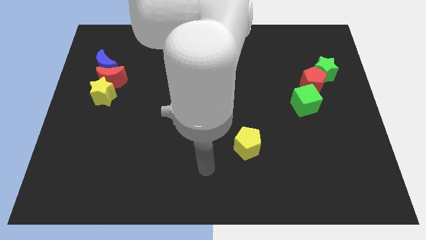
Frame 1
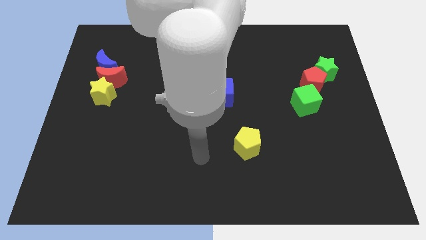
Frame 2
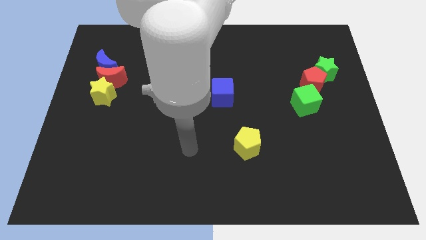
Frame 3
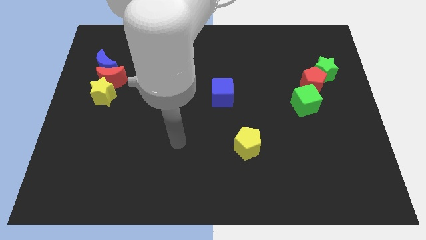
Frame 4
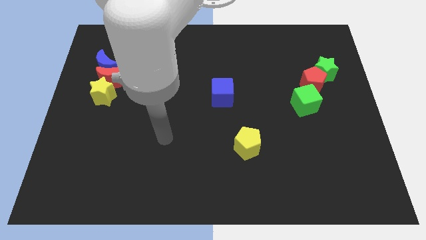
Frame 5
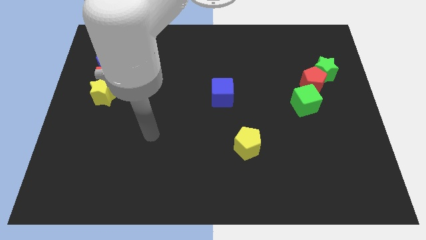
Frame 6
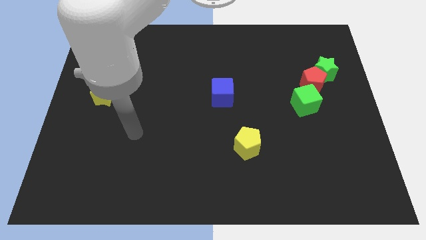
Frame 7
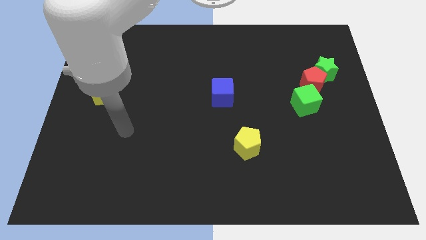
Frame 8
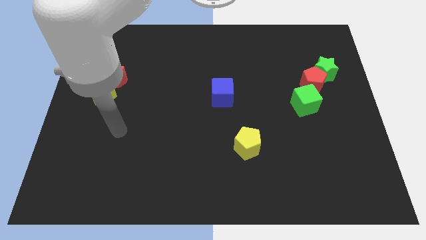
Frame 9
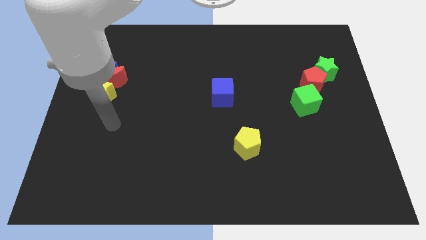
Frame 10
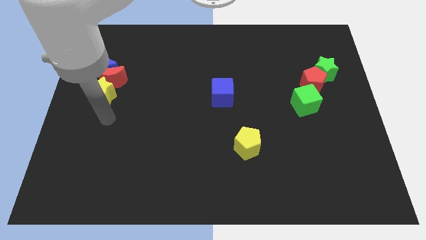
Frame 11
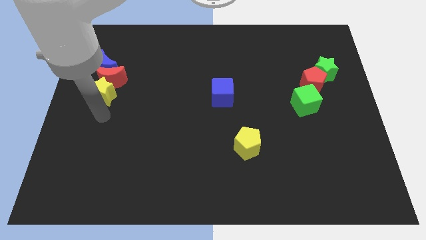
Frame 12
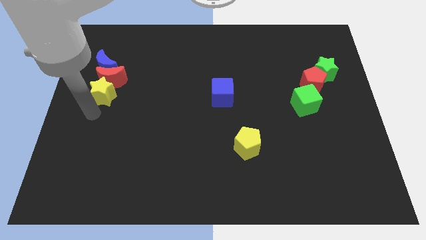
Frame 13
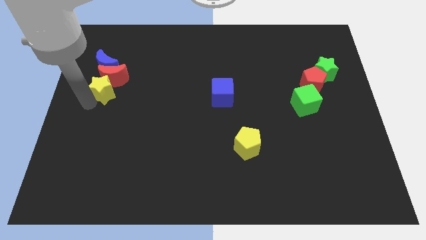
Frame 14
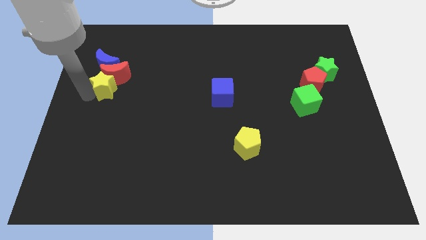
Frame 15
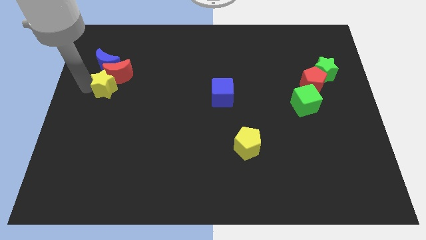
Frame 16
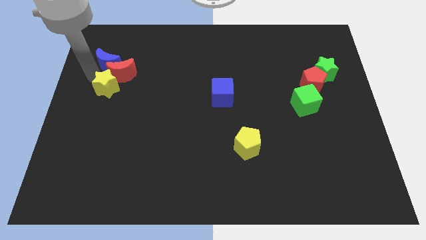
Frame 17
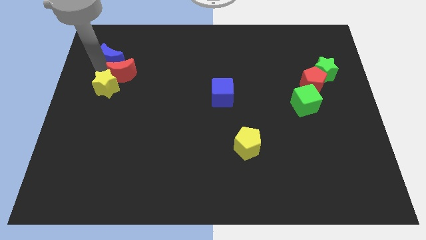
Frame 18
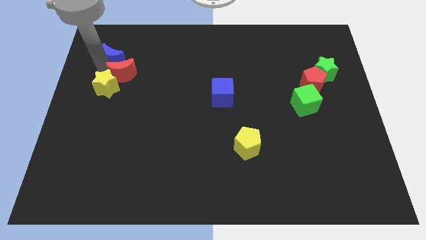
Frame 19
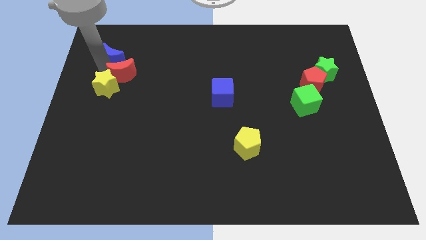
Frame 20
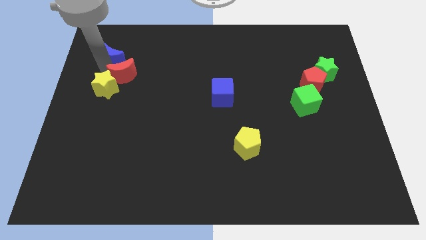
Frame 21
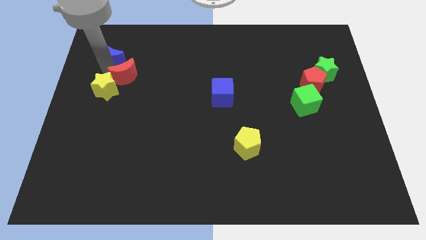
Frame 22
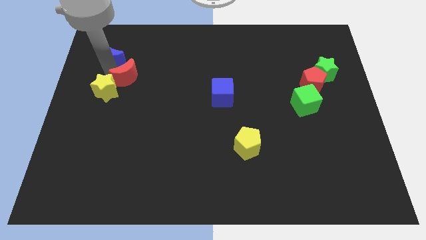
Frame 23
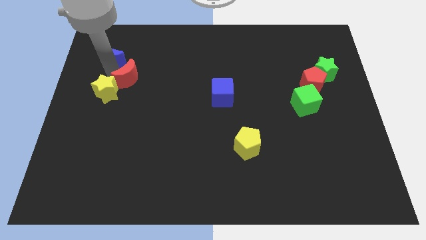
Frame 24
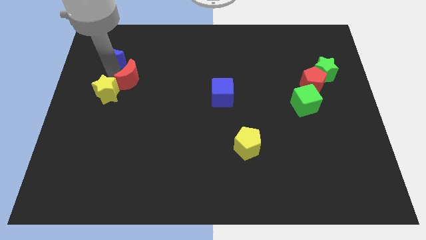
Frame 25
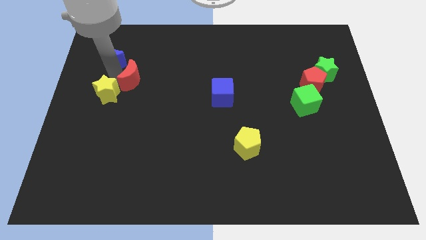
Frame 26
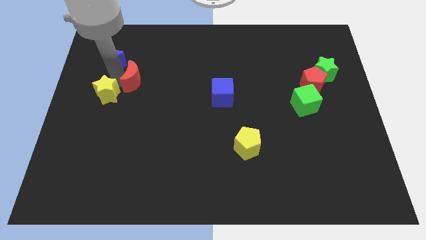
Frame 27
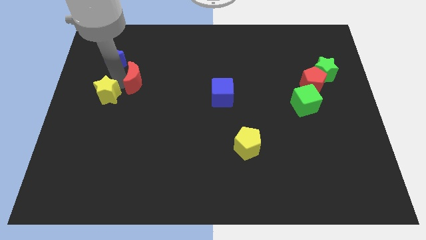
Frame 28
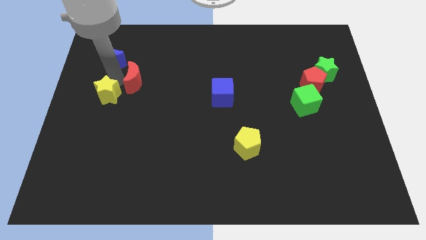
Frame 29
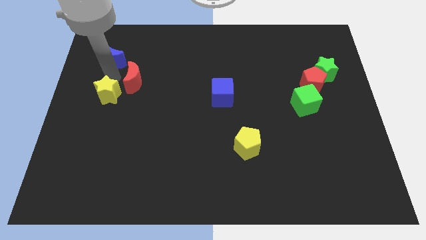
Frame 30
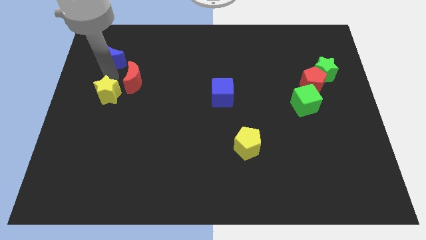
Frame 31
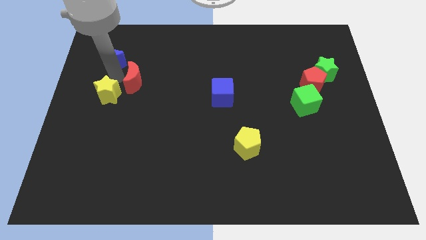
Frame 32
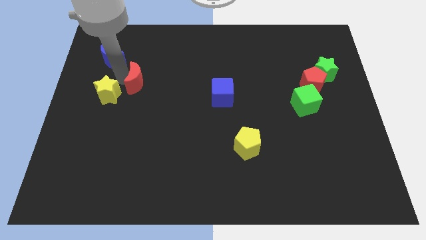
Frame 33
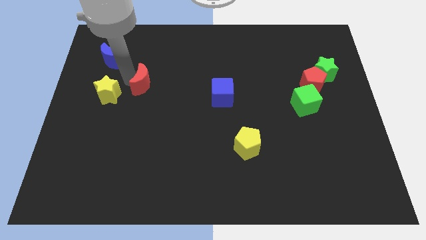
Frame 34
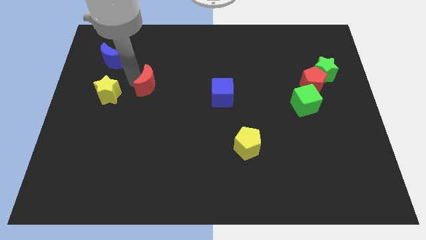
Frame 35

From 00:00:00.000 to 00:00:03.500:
move the red moon away from the blue moon and yellow star

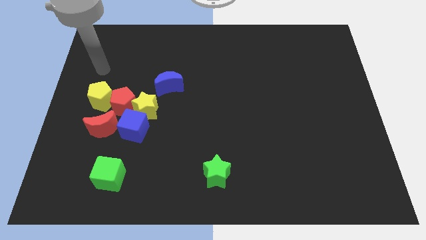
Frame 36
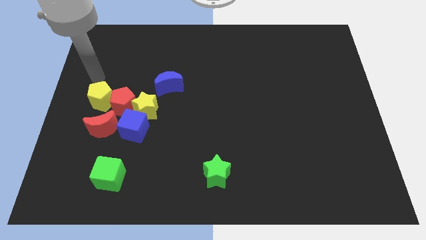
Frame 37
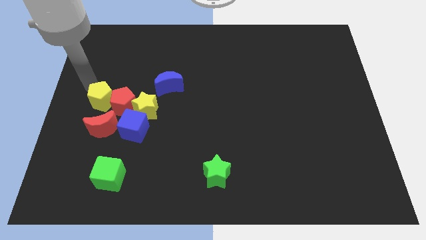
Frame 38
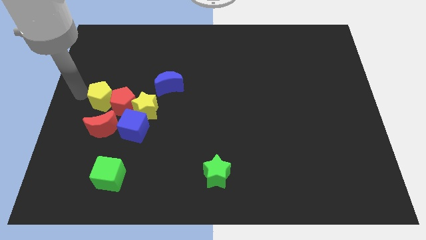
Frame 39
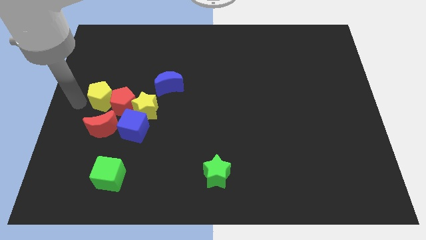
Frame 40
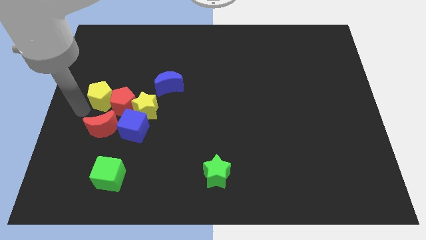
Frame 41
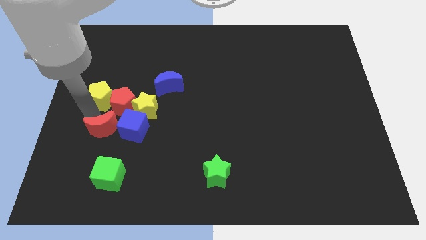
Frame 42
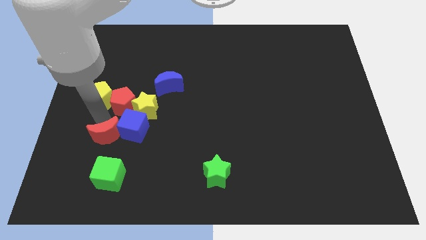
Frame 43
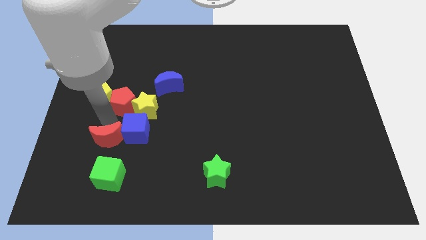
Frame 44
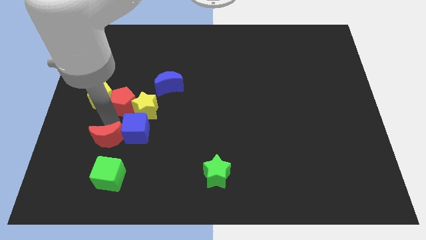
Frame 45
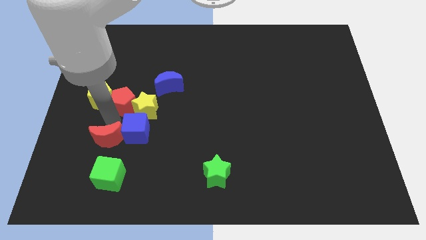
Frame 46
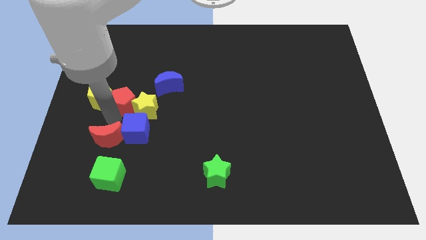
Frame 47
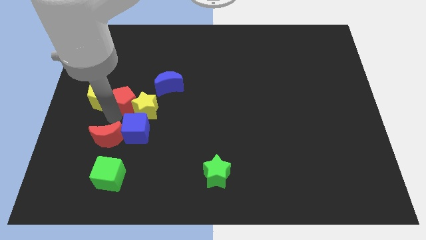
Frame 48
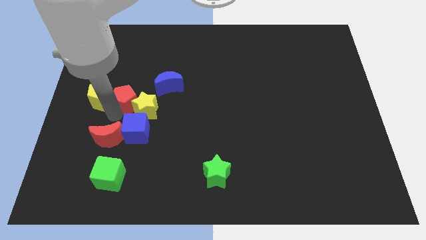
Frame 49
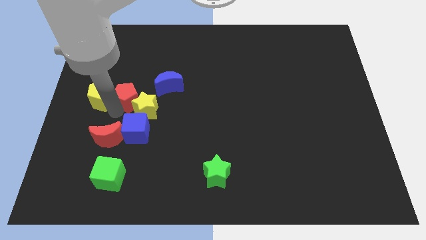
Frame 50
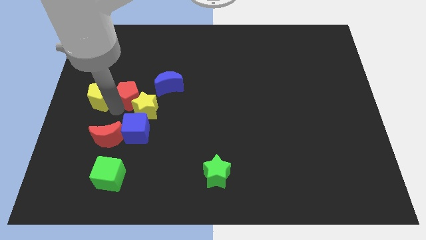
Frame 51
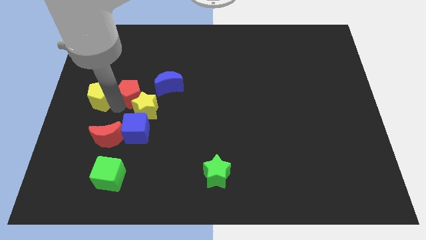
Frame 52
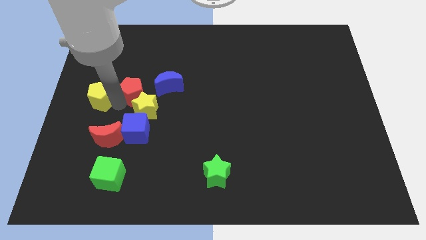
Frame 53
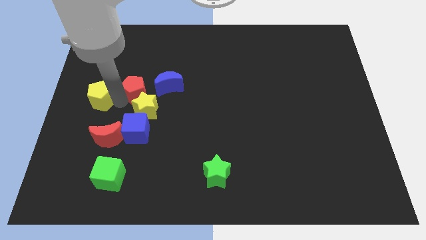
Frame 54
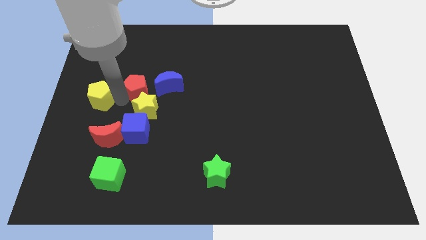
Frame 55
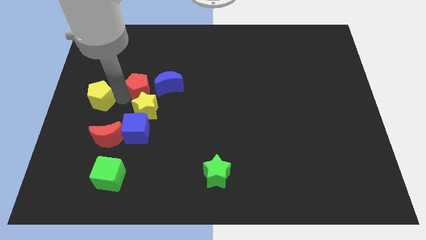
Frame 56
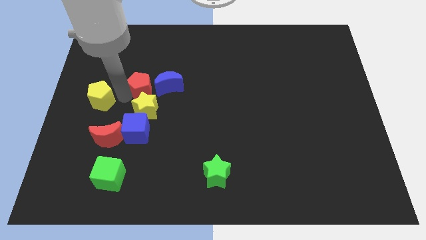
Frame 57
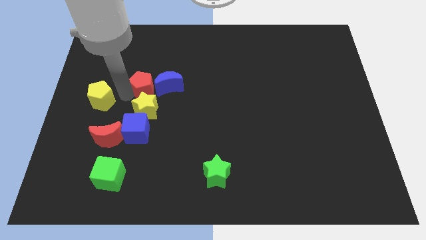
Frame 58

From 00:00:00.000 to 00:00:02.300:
move the red pentagon away from the group

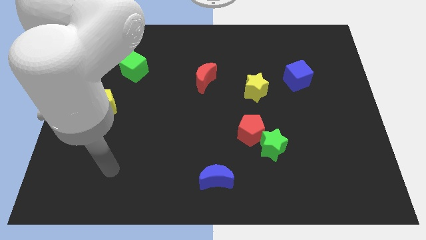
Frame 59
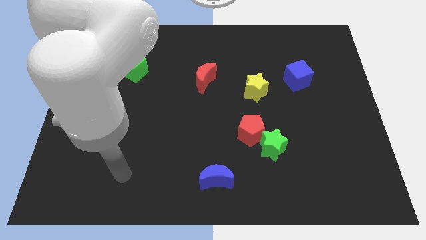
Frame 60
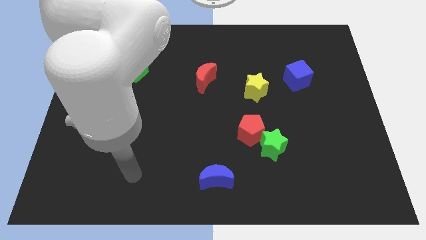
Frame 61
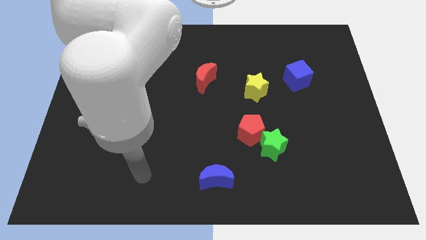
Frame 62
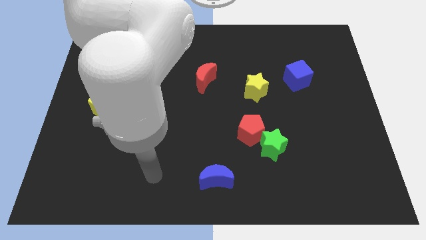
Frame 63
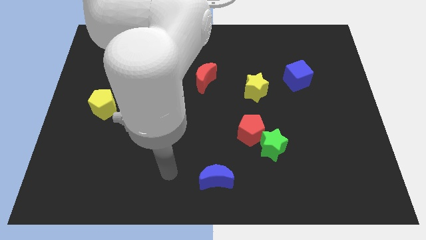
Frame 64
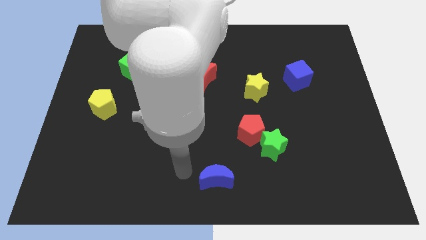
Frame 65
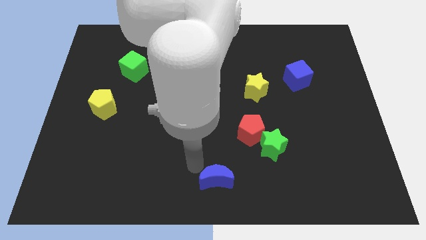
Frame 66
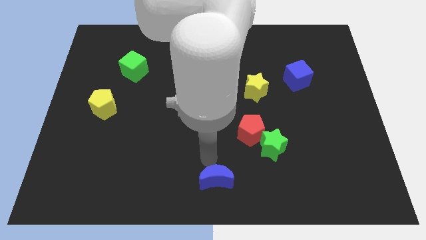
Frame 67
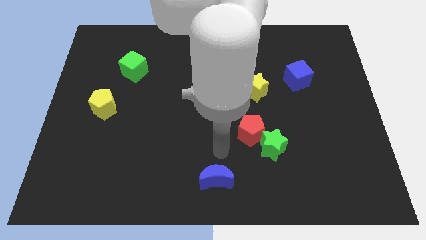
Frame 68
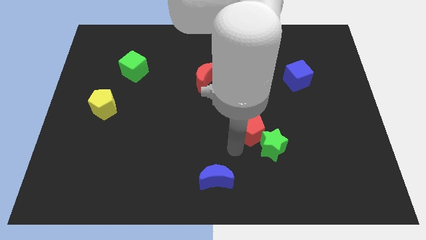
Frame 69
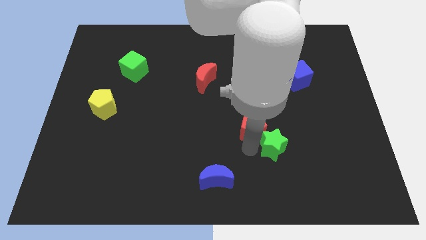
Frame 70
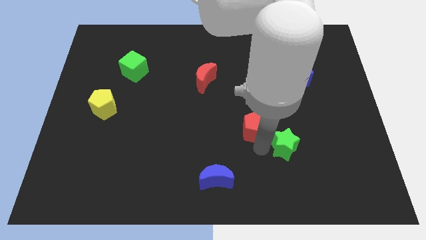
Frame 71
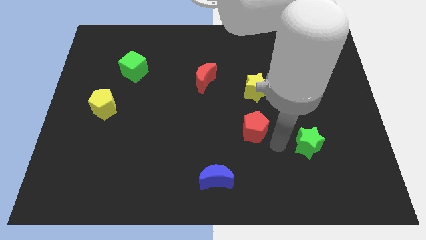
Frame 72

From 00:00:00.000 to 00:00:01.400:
pull the red pentagon apart from the green star

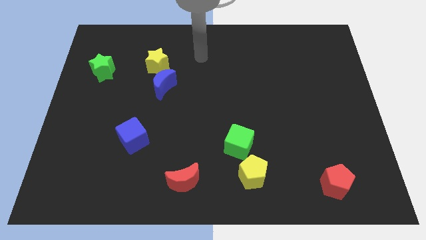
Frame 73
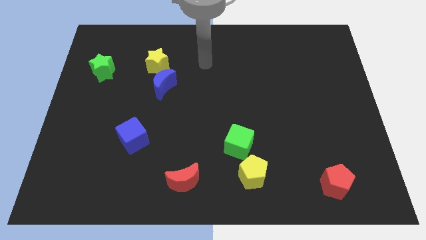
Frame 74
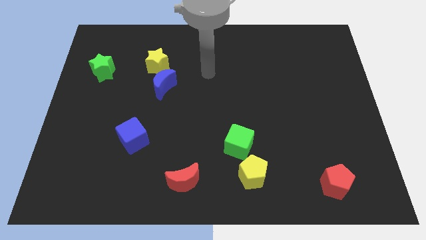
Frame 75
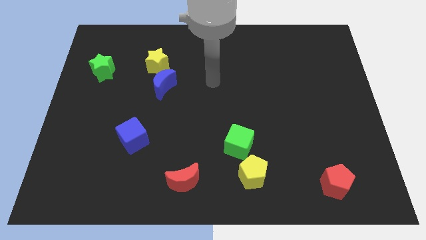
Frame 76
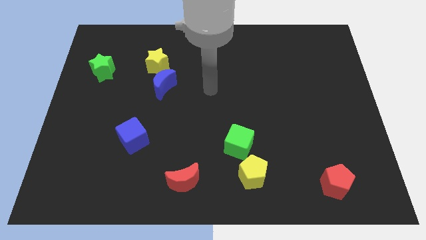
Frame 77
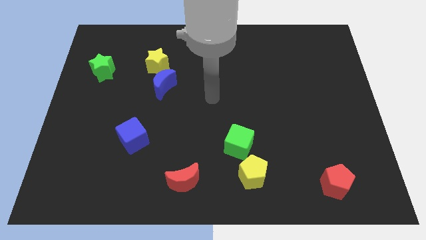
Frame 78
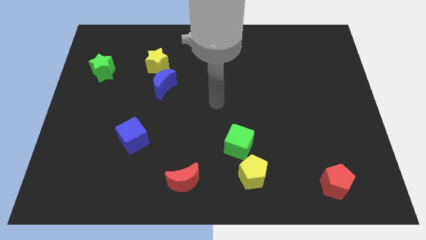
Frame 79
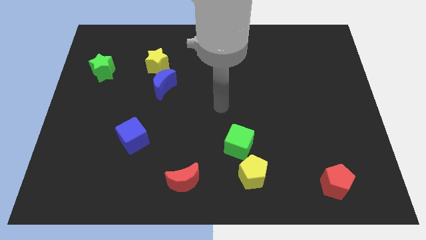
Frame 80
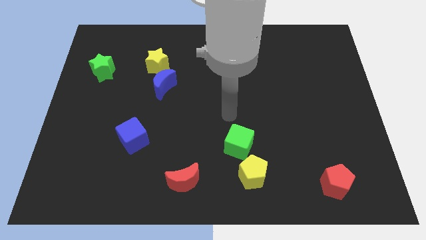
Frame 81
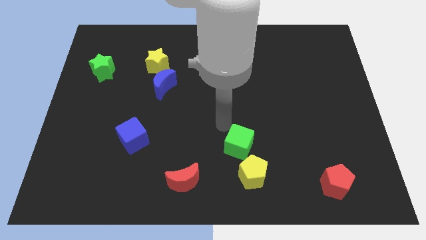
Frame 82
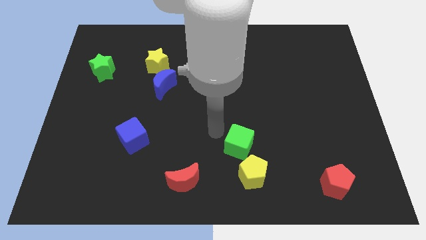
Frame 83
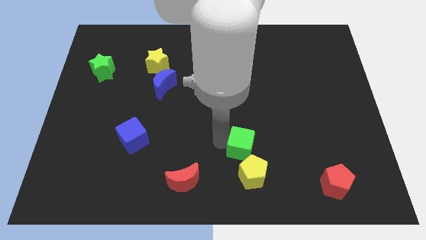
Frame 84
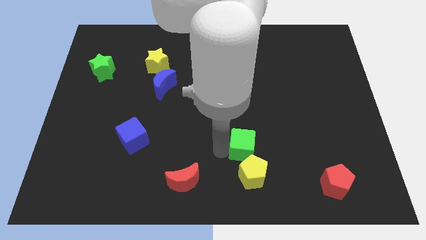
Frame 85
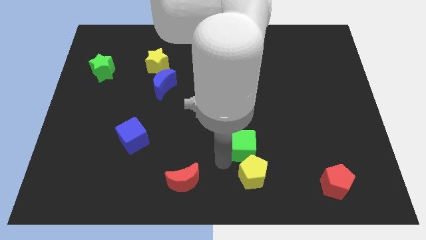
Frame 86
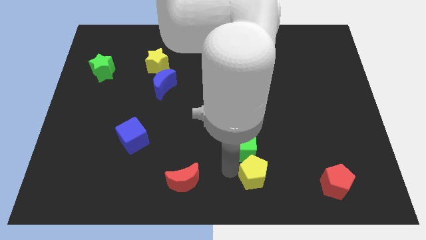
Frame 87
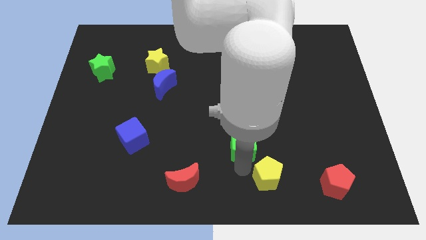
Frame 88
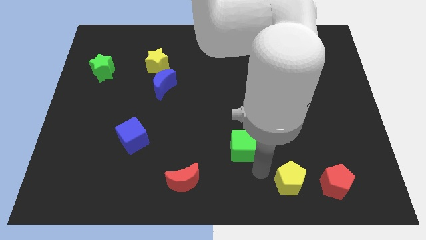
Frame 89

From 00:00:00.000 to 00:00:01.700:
move the green cube away from the yellow pentagon

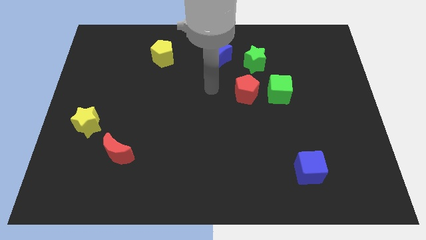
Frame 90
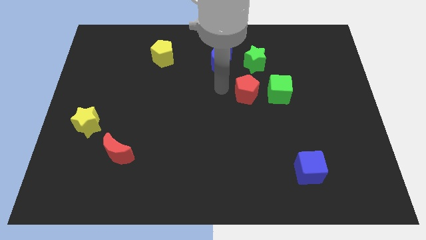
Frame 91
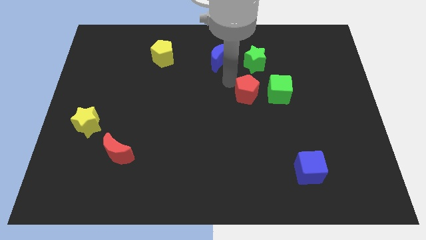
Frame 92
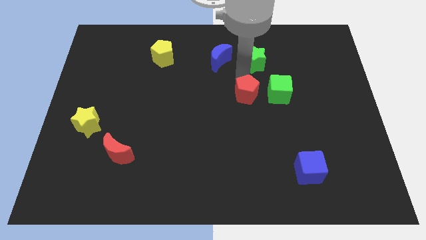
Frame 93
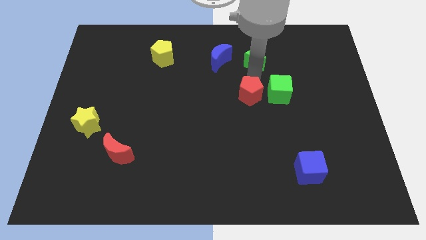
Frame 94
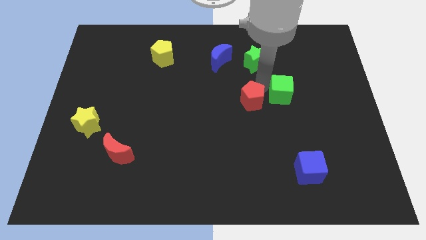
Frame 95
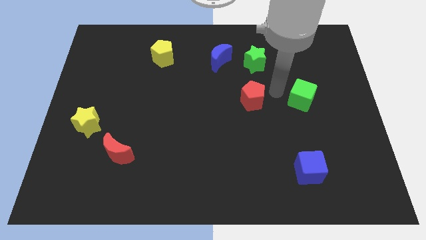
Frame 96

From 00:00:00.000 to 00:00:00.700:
pull the red pentagon apart from the green cube
